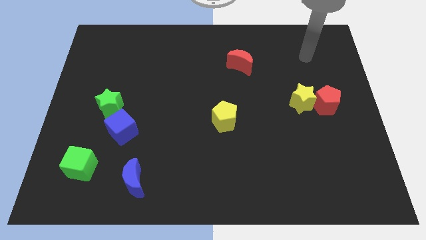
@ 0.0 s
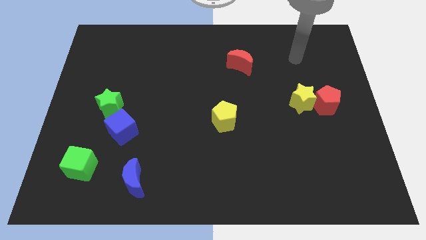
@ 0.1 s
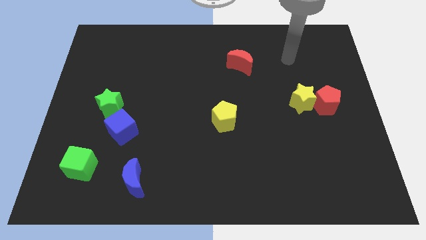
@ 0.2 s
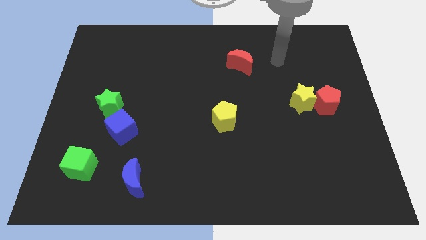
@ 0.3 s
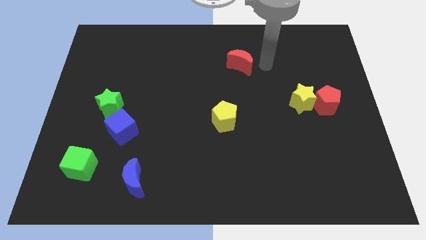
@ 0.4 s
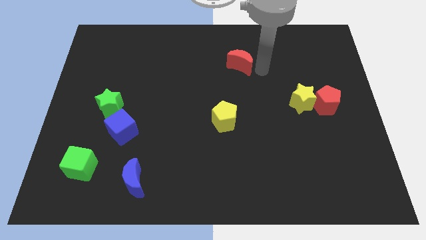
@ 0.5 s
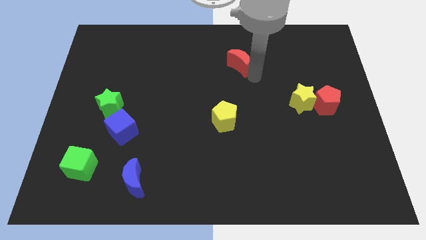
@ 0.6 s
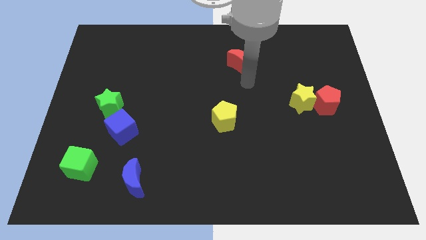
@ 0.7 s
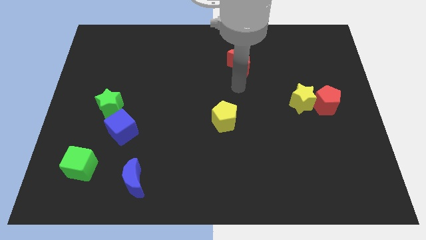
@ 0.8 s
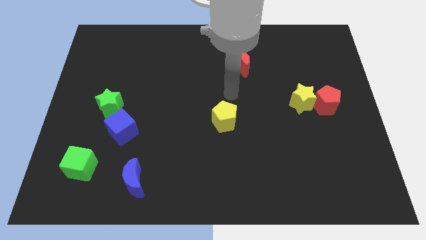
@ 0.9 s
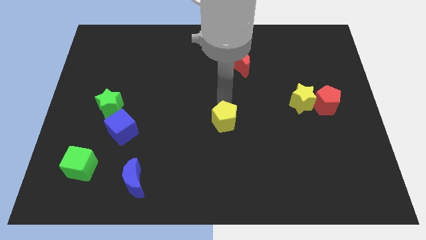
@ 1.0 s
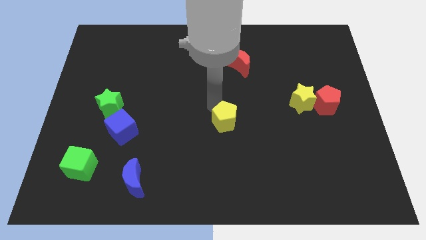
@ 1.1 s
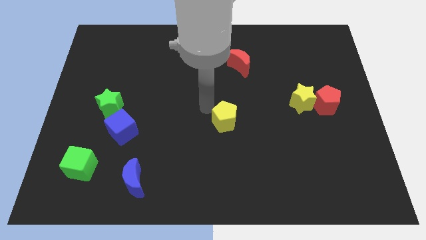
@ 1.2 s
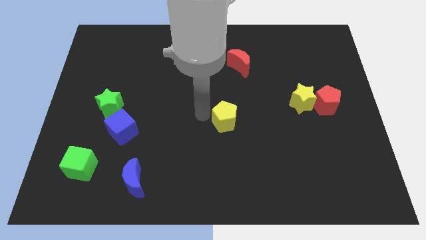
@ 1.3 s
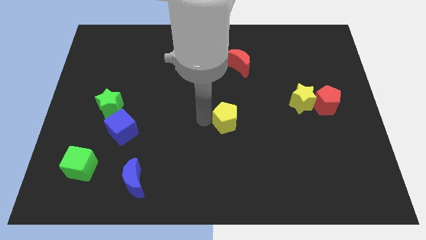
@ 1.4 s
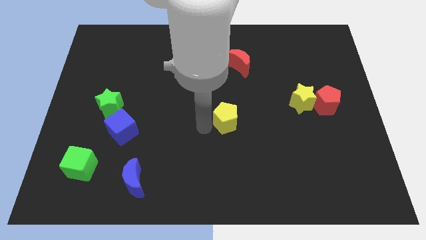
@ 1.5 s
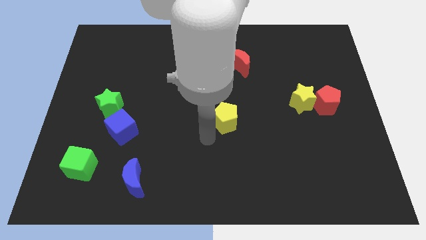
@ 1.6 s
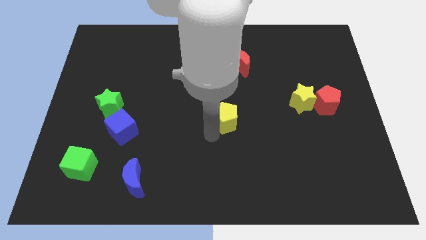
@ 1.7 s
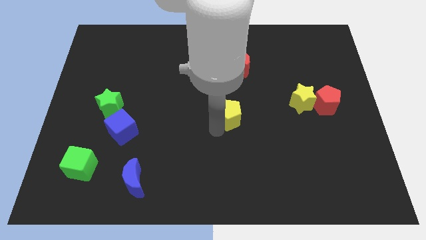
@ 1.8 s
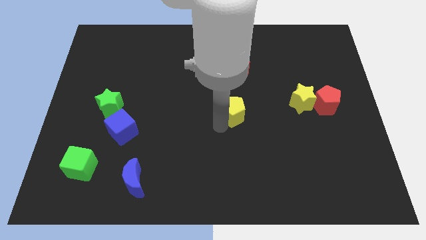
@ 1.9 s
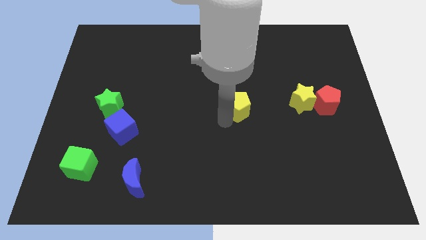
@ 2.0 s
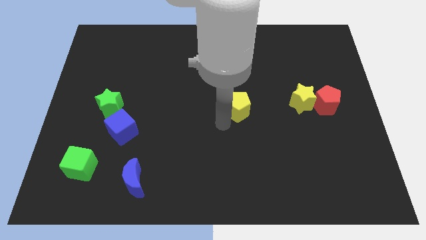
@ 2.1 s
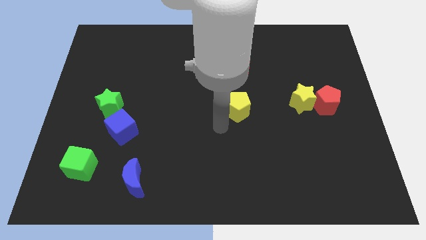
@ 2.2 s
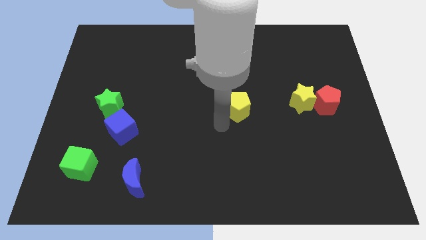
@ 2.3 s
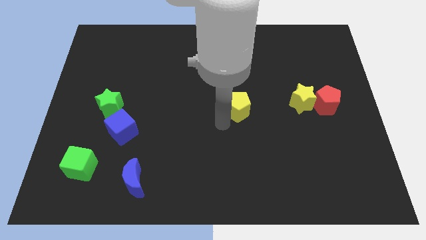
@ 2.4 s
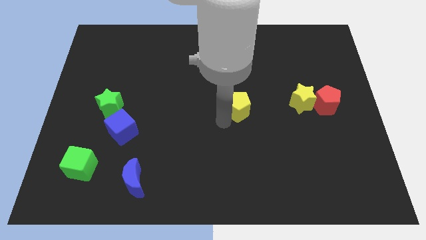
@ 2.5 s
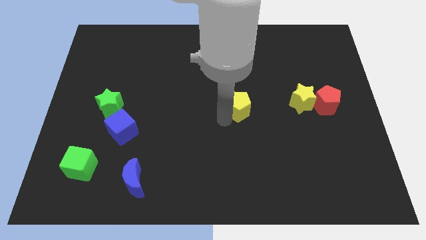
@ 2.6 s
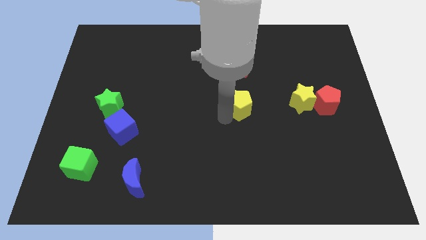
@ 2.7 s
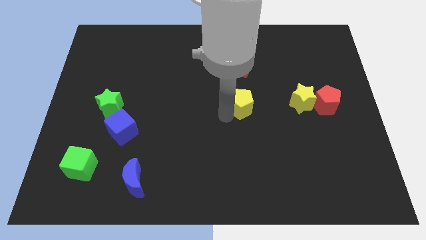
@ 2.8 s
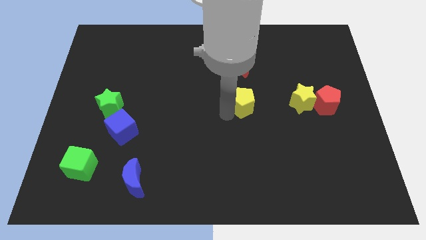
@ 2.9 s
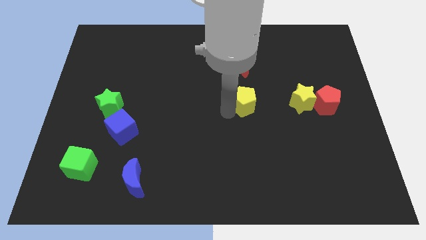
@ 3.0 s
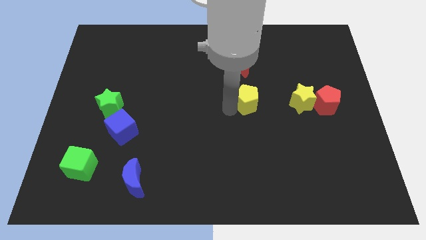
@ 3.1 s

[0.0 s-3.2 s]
push the yellow pentagon a bit up and to the right

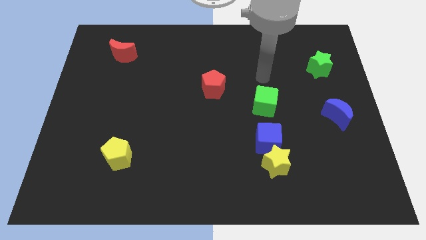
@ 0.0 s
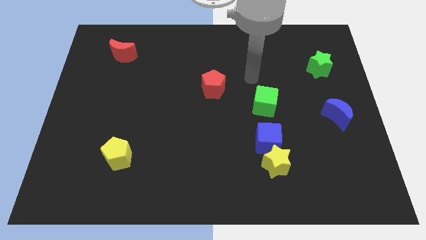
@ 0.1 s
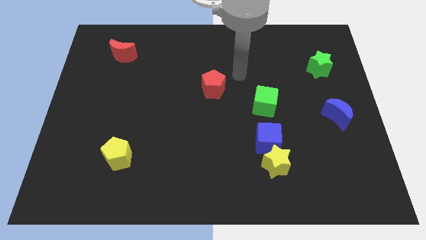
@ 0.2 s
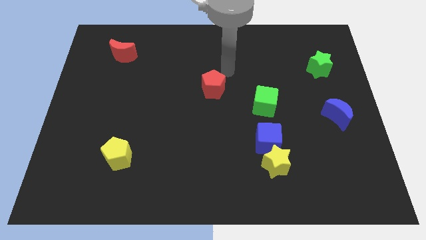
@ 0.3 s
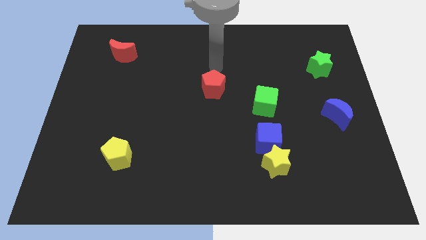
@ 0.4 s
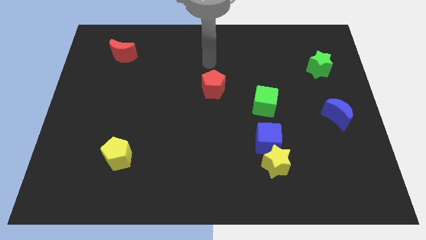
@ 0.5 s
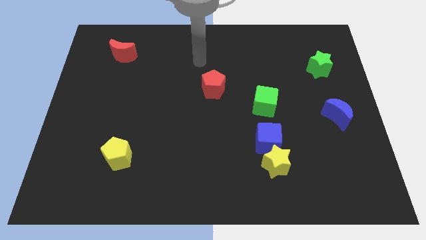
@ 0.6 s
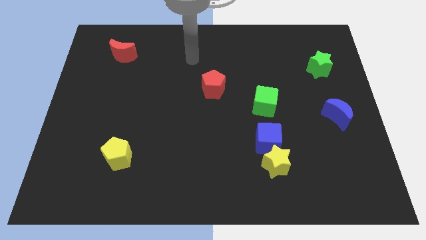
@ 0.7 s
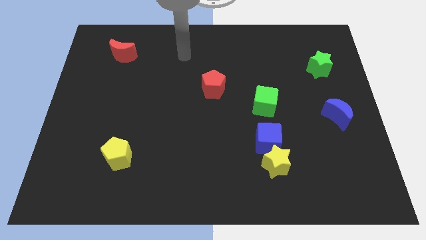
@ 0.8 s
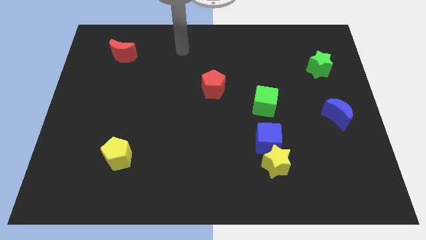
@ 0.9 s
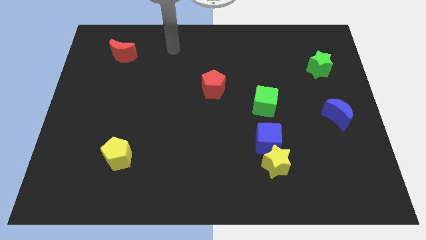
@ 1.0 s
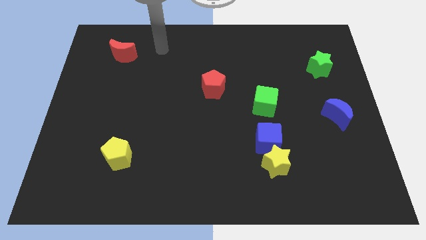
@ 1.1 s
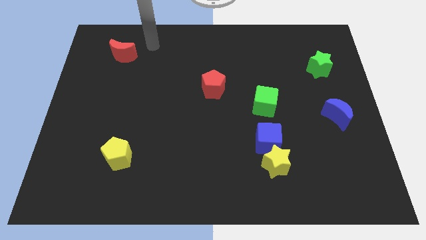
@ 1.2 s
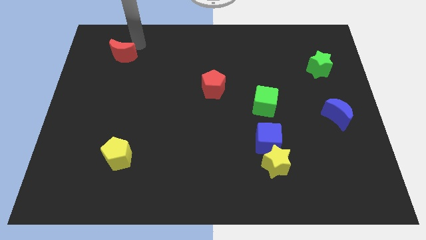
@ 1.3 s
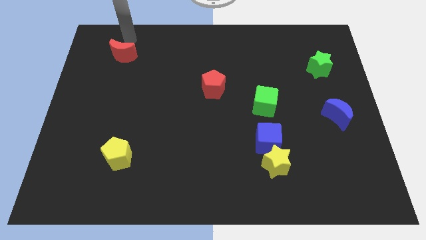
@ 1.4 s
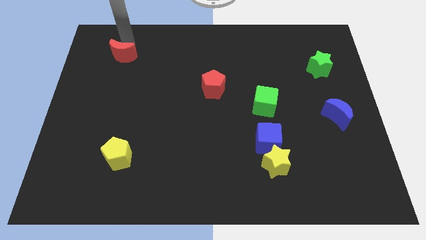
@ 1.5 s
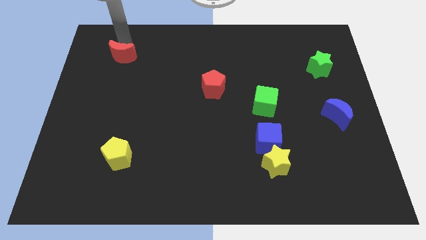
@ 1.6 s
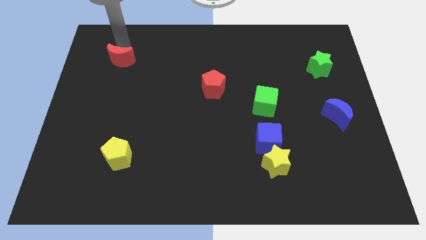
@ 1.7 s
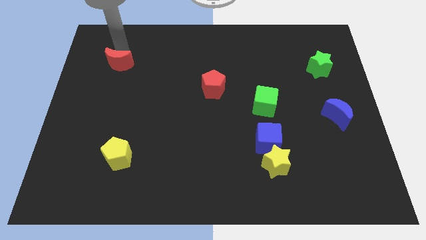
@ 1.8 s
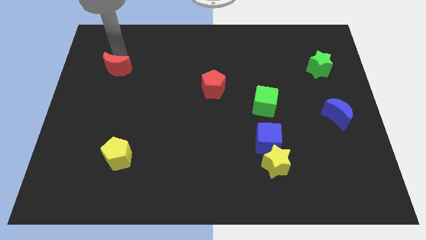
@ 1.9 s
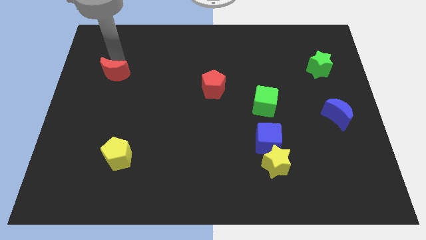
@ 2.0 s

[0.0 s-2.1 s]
push the red moon down somewhat

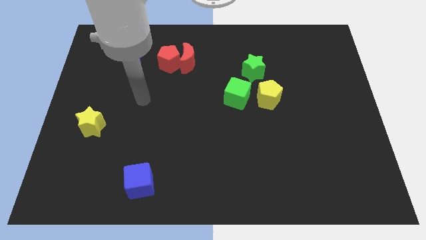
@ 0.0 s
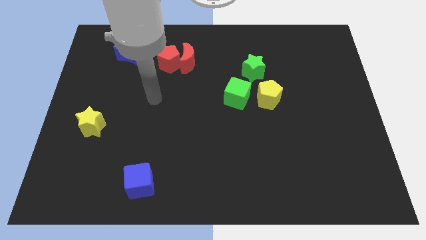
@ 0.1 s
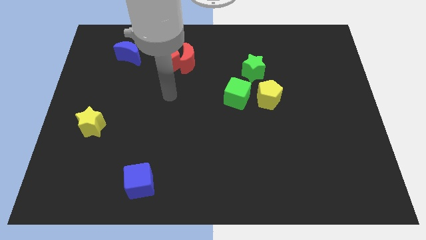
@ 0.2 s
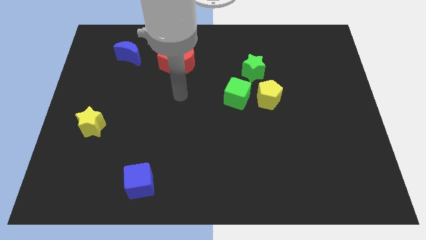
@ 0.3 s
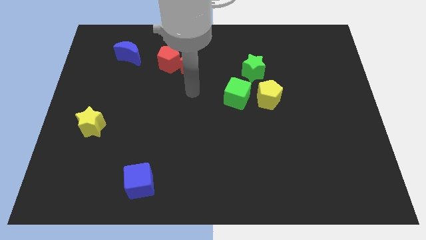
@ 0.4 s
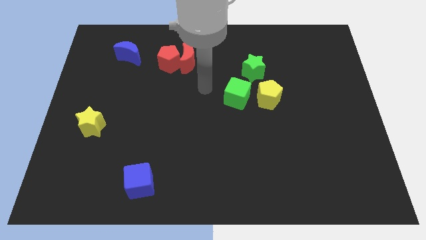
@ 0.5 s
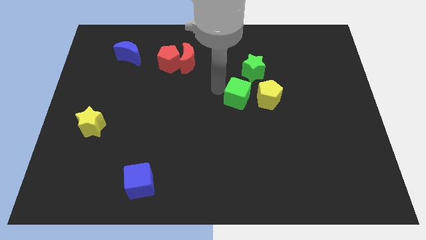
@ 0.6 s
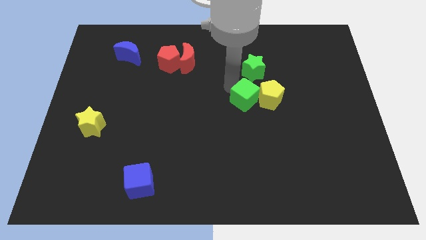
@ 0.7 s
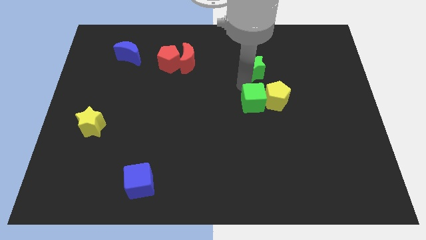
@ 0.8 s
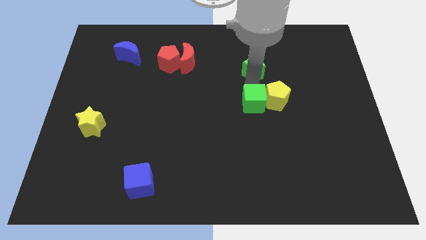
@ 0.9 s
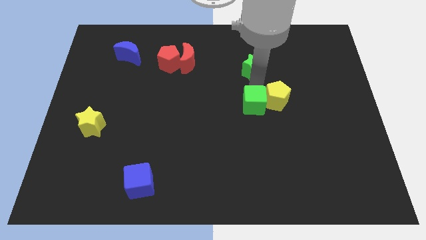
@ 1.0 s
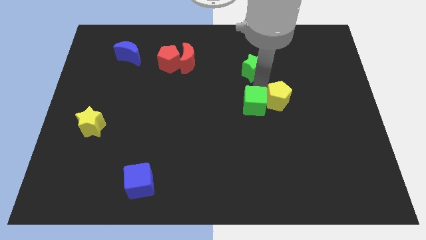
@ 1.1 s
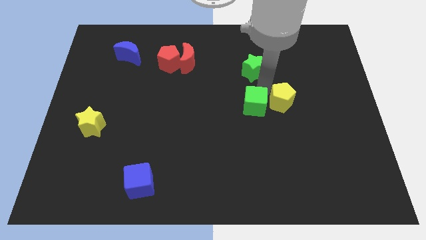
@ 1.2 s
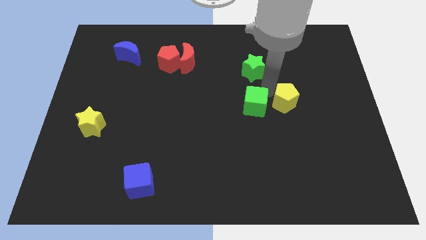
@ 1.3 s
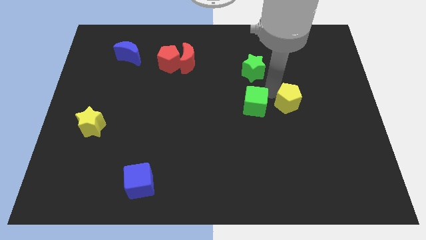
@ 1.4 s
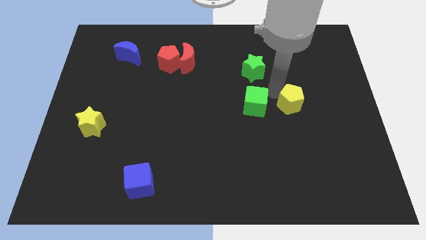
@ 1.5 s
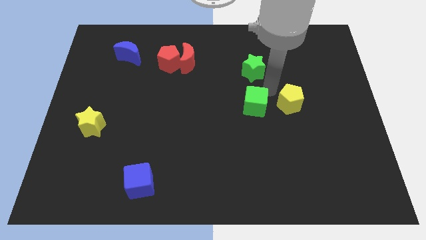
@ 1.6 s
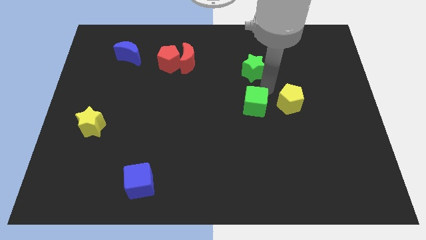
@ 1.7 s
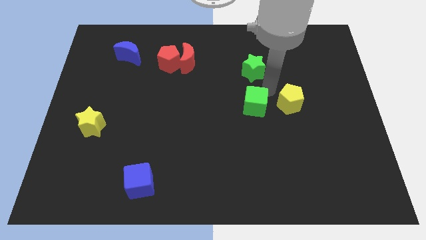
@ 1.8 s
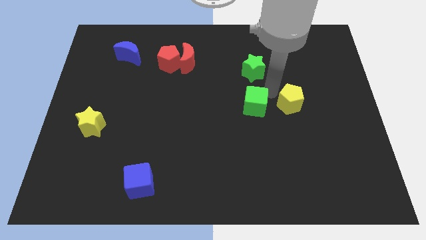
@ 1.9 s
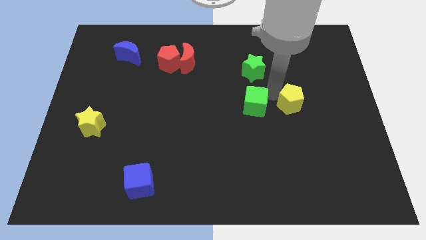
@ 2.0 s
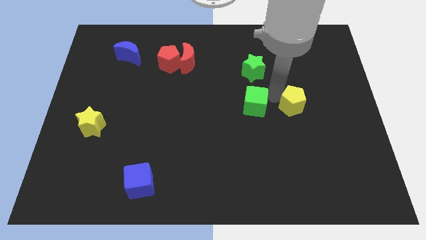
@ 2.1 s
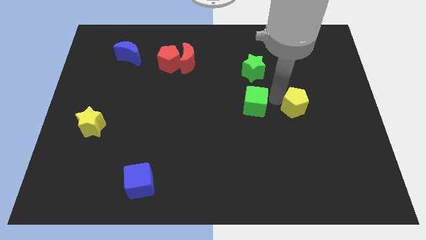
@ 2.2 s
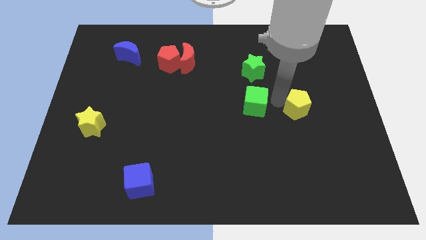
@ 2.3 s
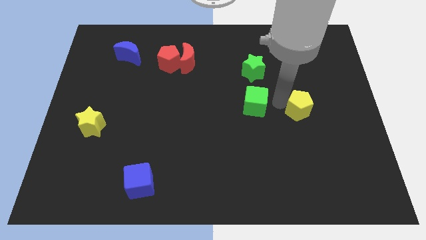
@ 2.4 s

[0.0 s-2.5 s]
slightly slide the yellow pentagon downwards and then right

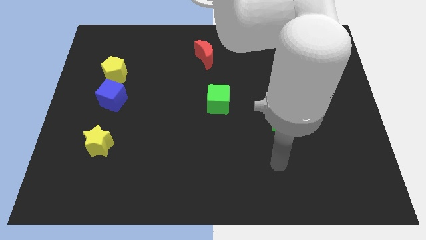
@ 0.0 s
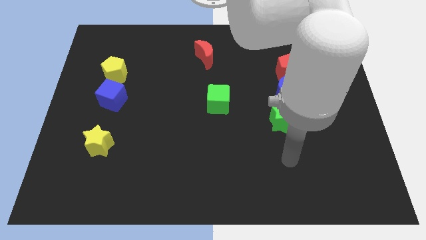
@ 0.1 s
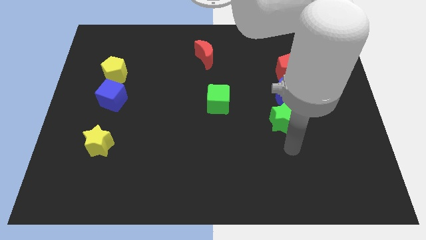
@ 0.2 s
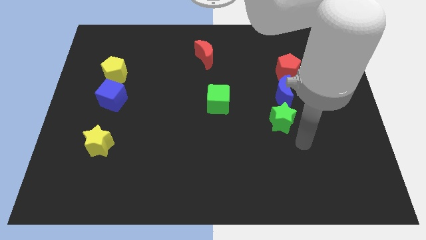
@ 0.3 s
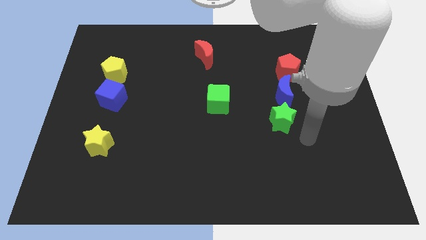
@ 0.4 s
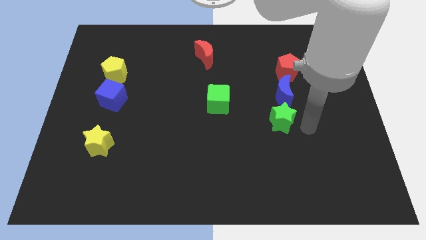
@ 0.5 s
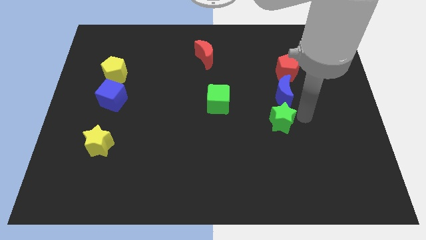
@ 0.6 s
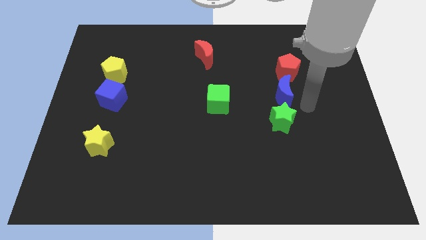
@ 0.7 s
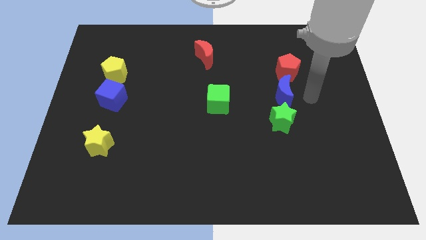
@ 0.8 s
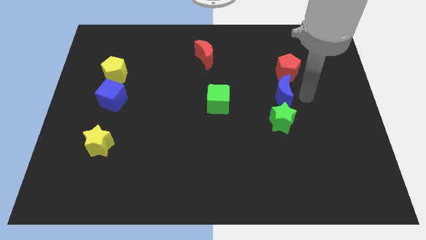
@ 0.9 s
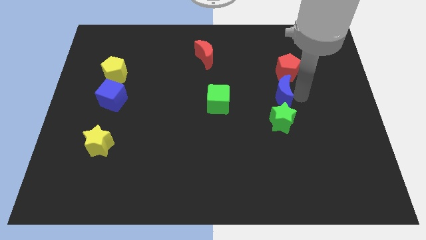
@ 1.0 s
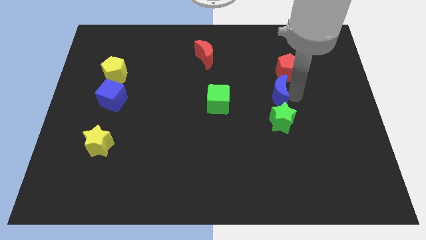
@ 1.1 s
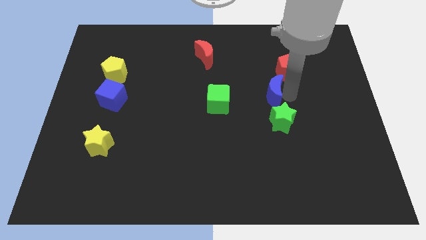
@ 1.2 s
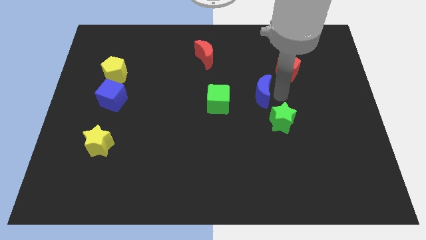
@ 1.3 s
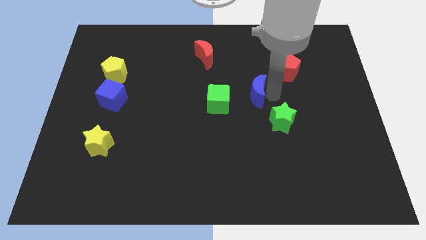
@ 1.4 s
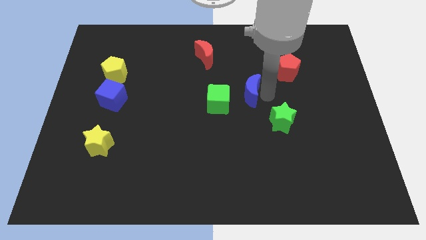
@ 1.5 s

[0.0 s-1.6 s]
slightly push the blue moon left
